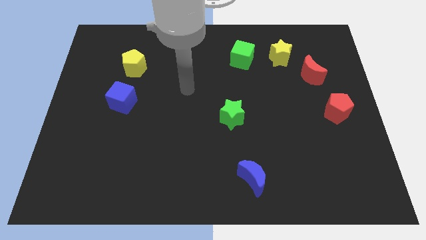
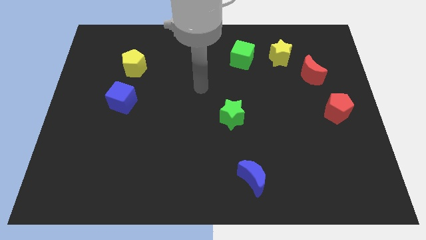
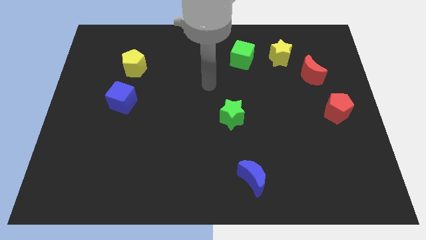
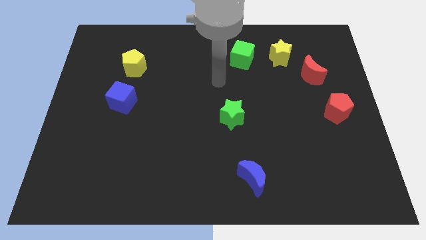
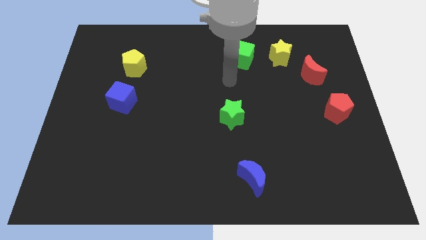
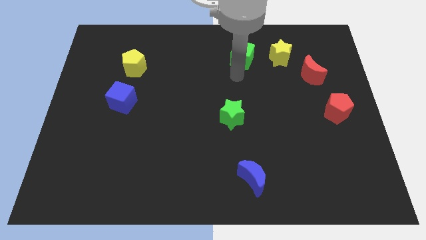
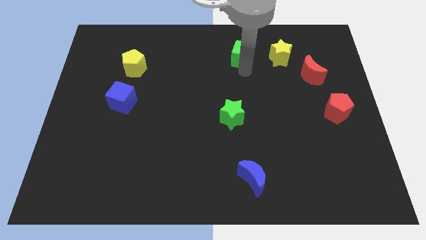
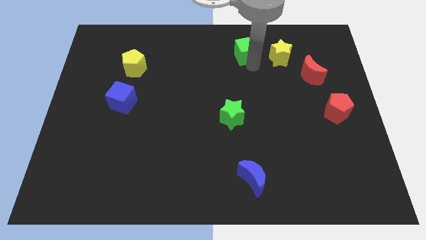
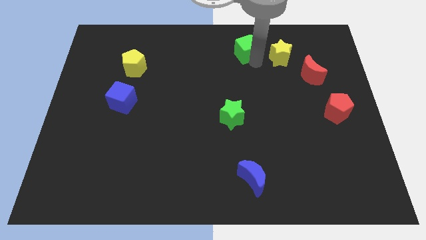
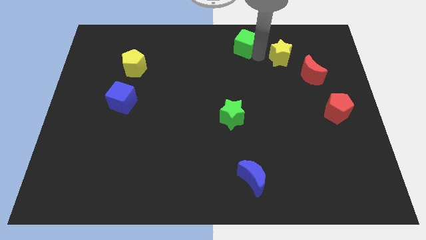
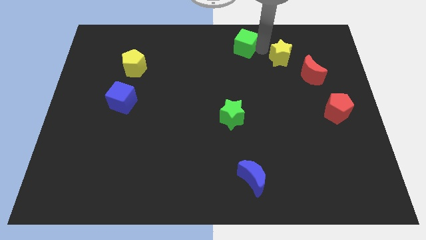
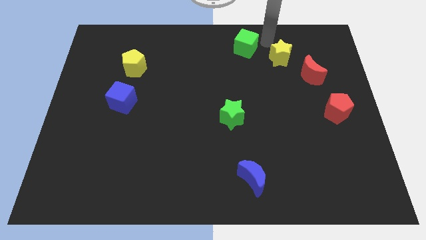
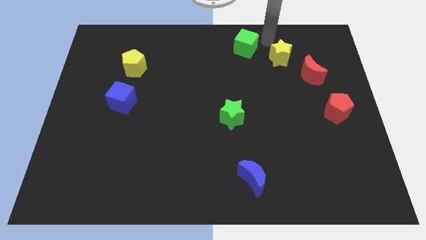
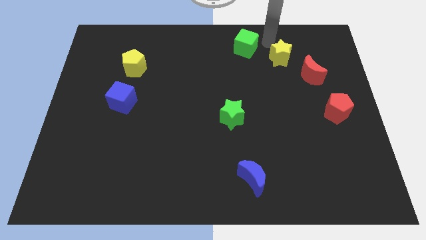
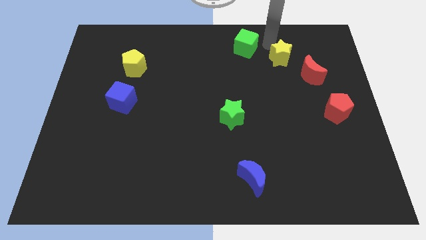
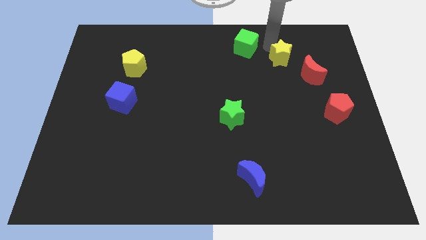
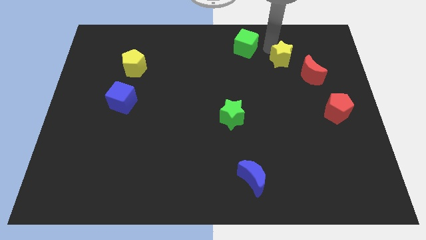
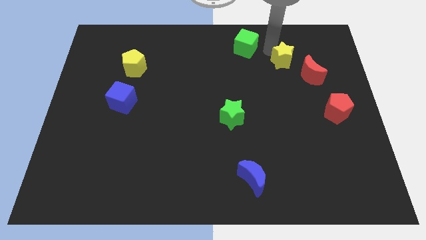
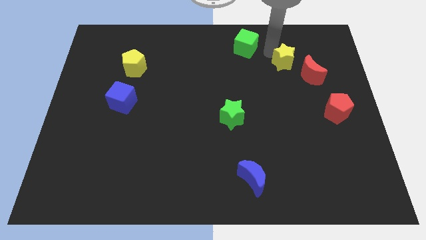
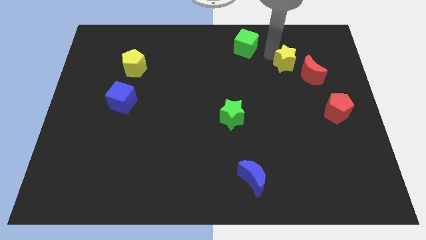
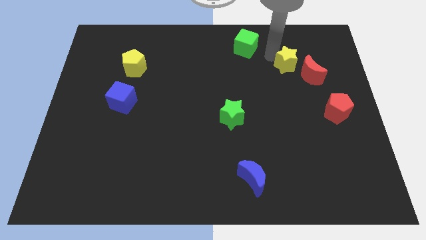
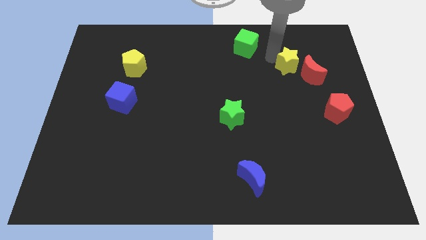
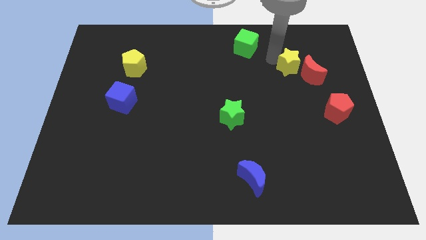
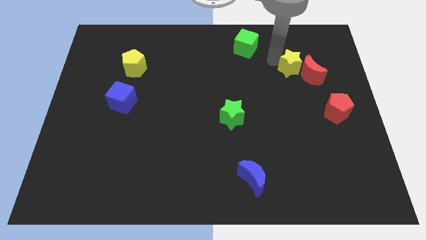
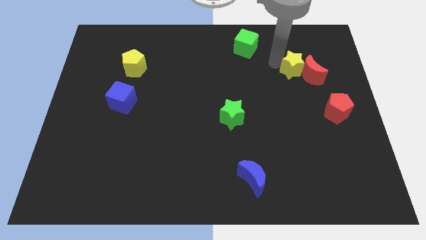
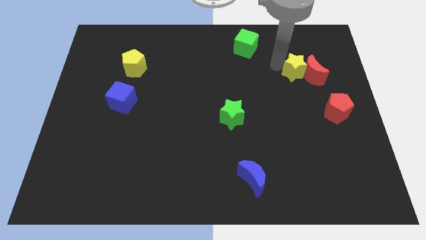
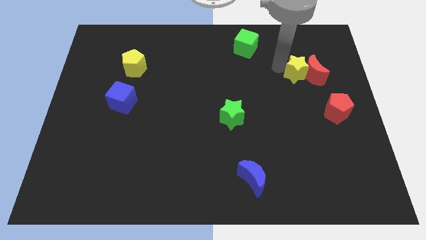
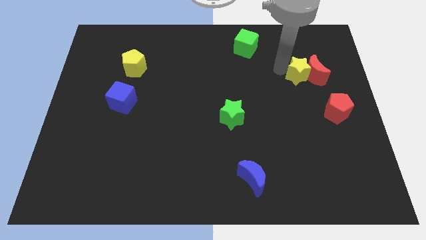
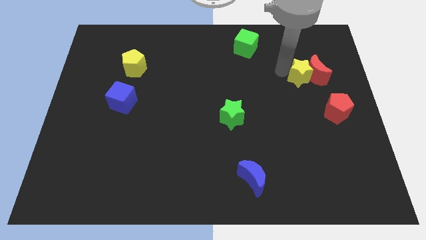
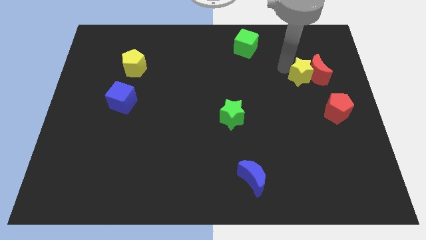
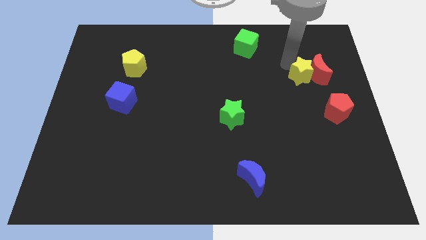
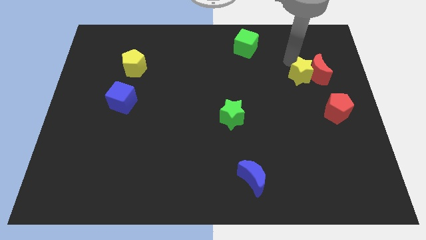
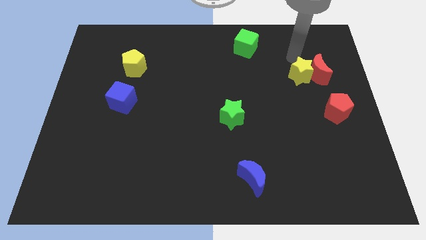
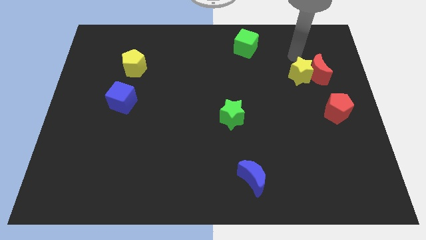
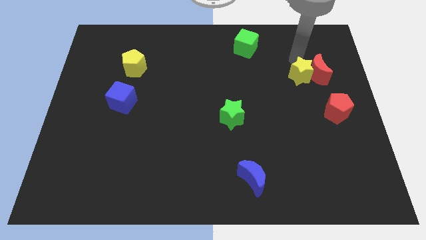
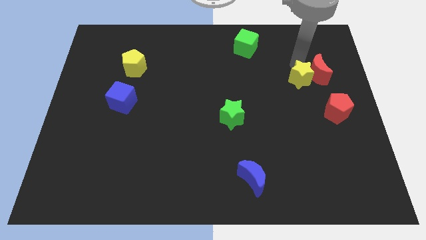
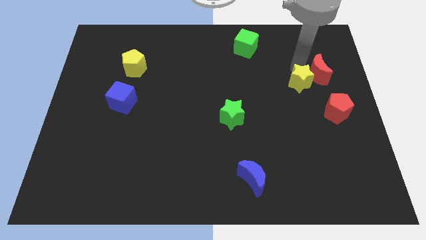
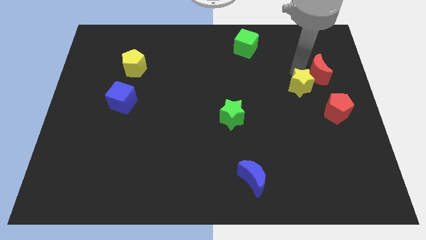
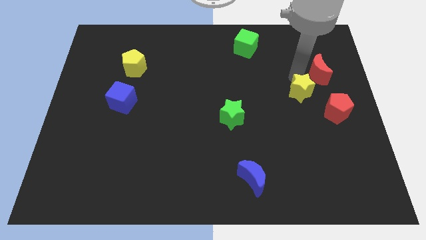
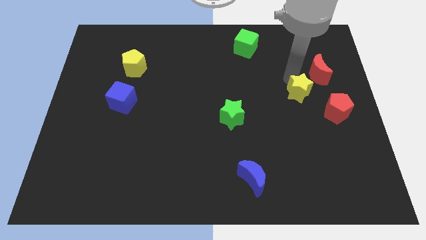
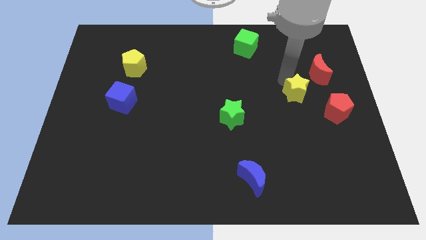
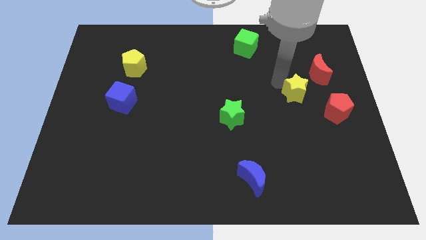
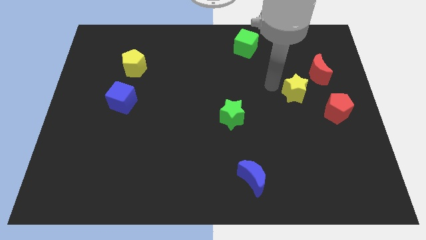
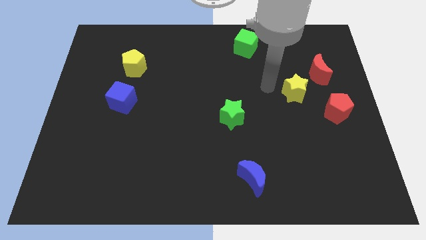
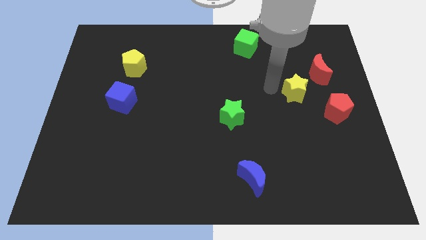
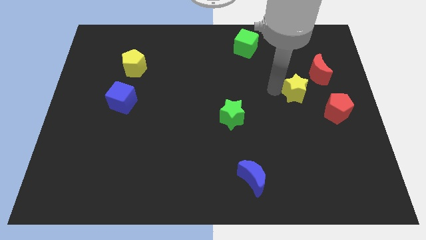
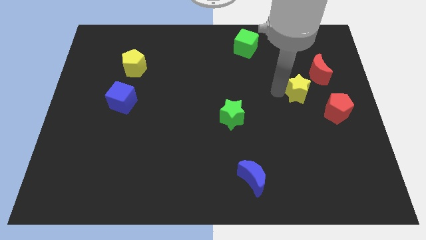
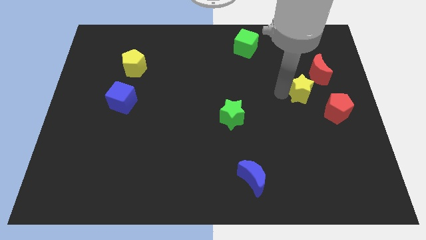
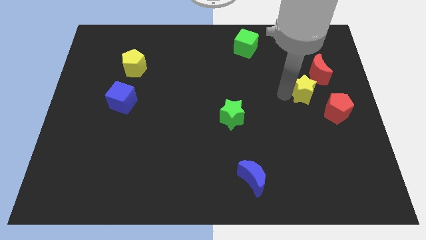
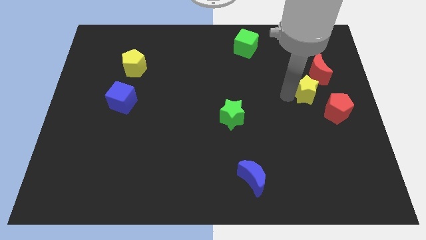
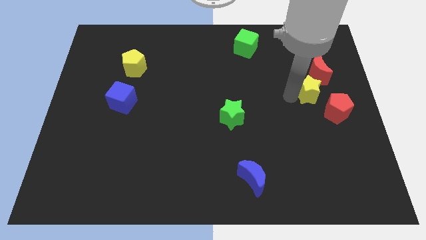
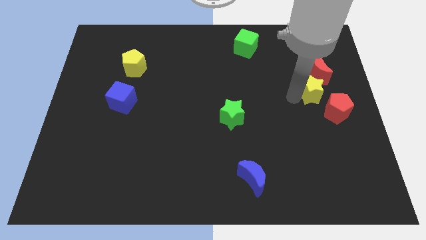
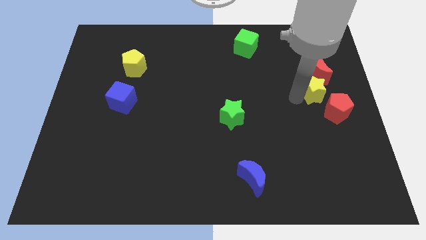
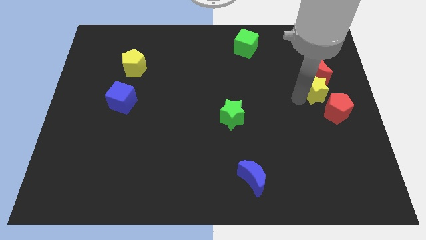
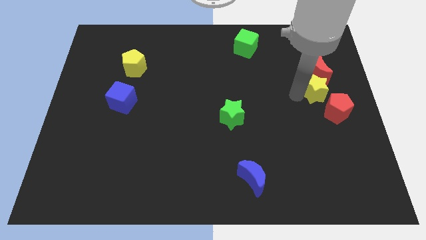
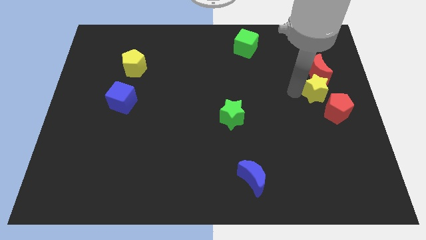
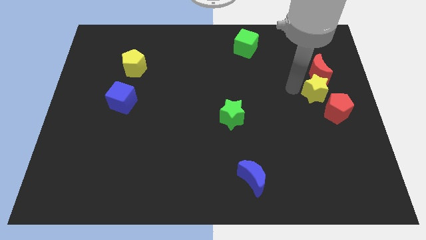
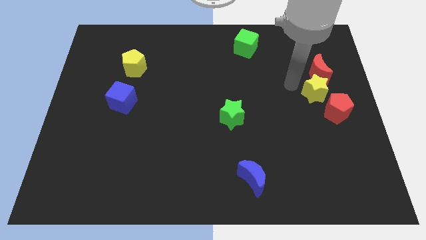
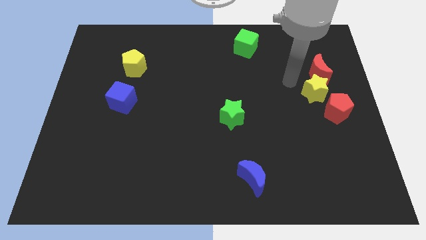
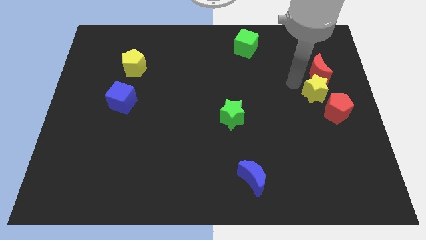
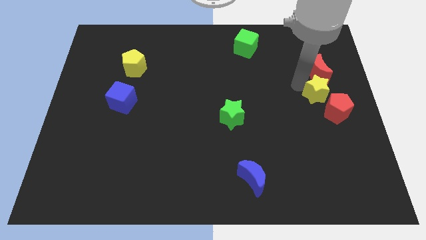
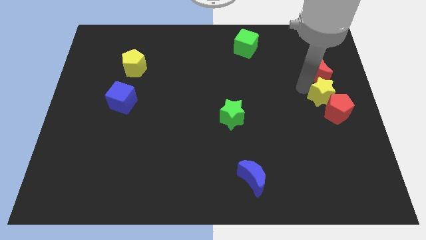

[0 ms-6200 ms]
put the yellow star to the red pentagon

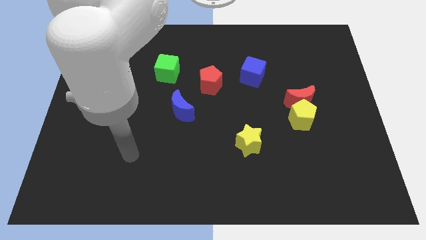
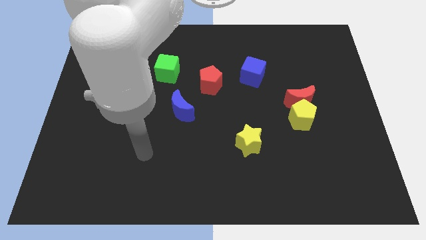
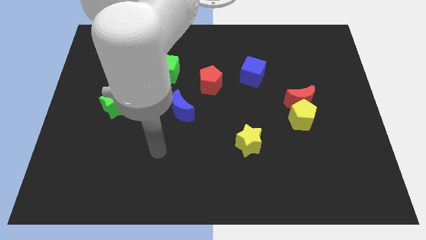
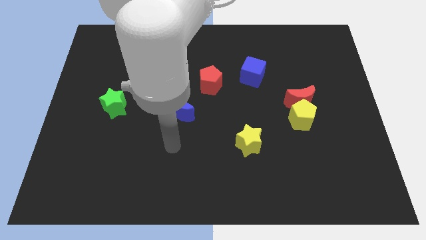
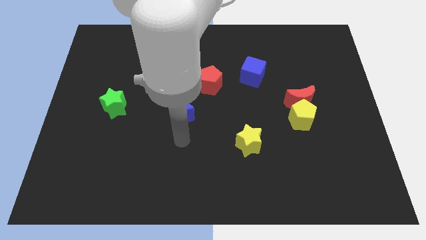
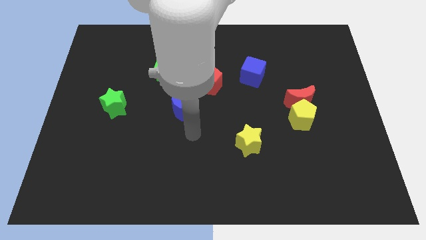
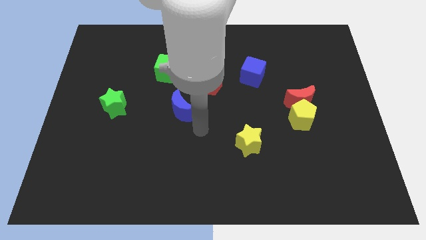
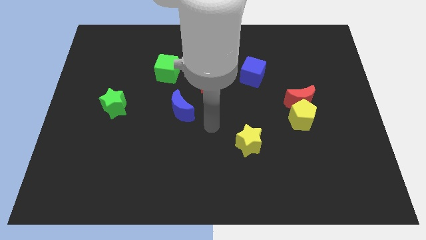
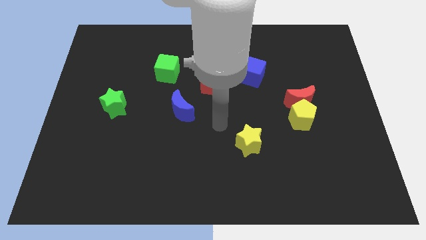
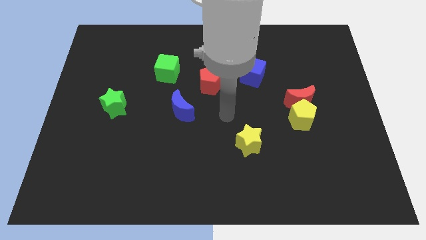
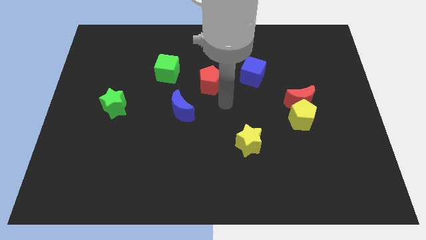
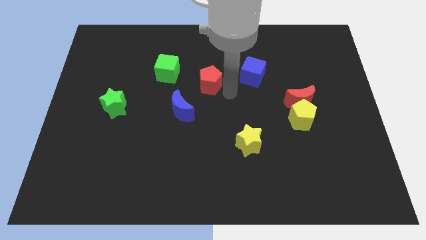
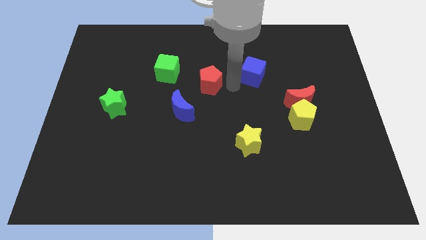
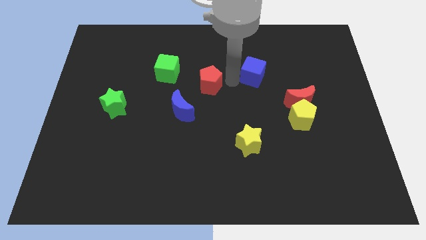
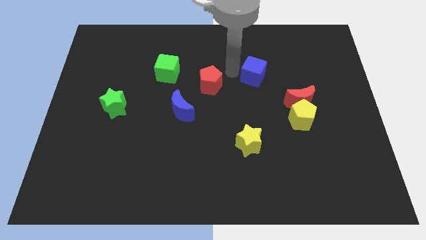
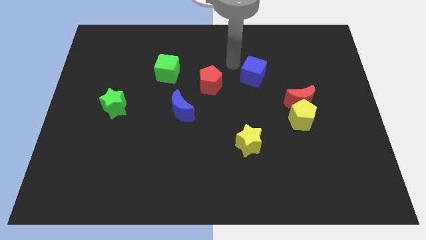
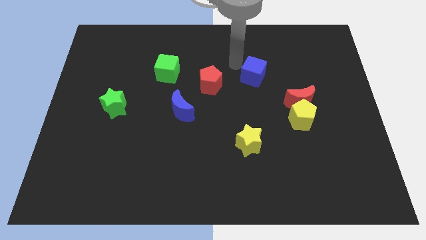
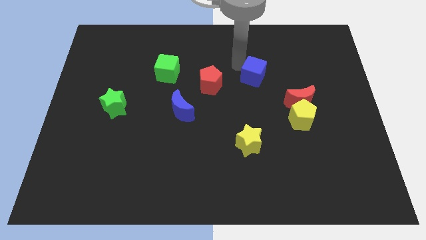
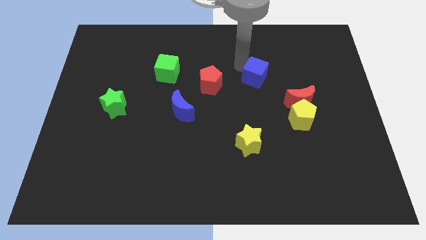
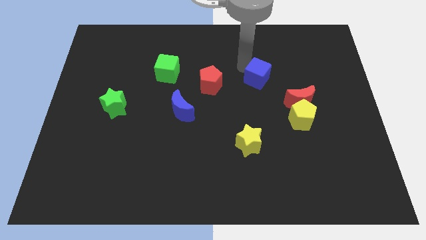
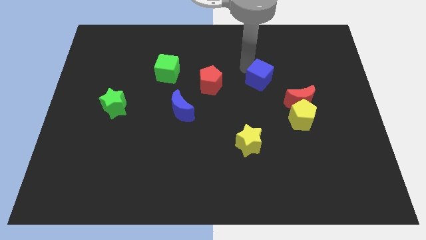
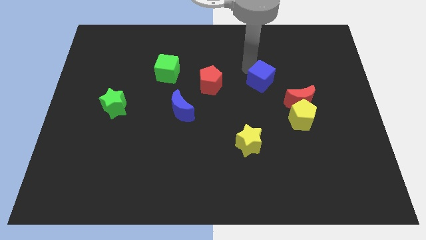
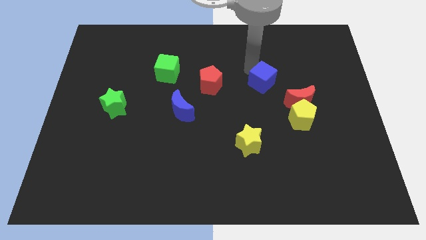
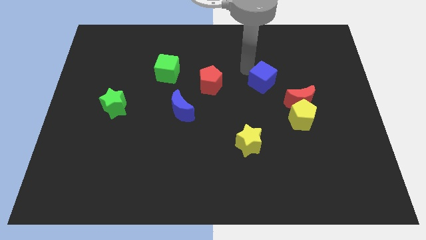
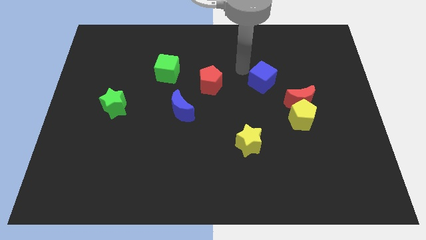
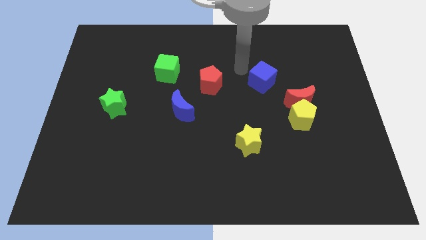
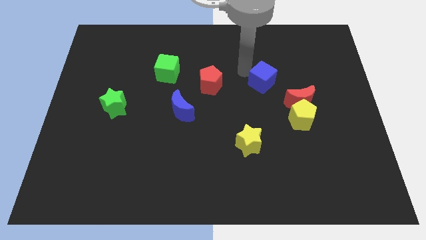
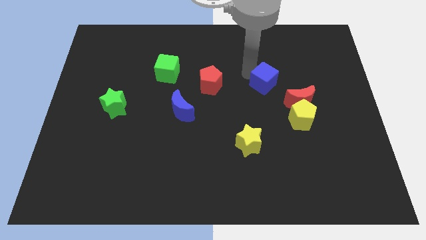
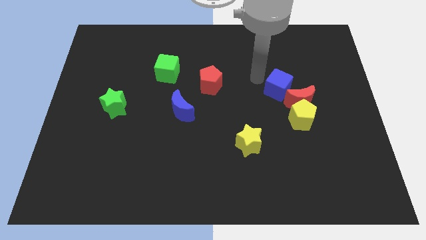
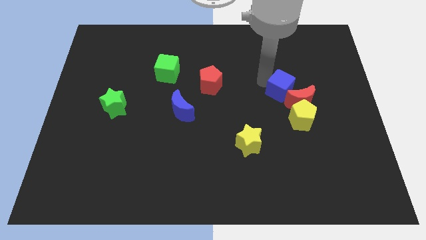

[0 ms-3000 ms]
slide the blue cube to the red moon
